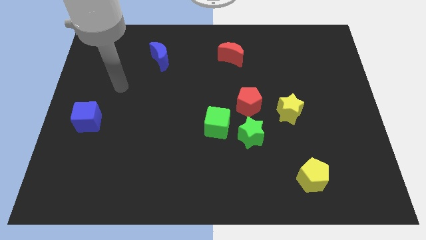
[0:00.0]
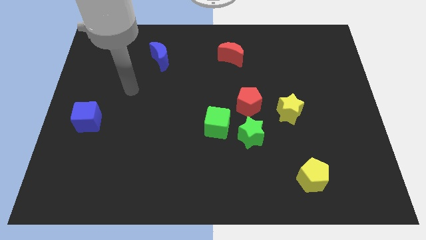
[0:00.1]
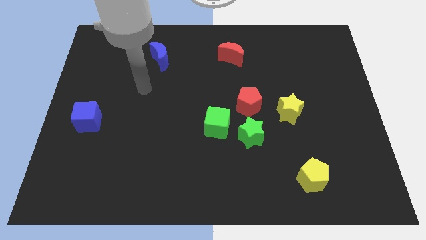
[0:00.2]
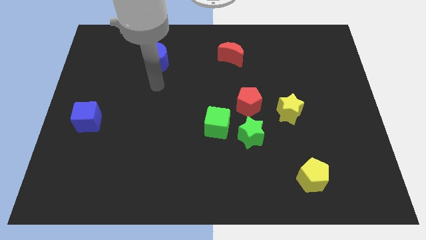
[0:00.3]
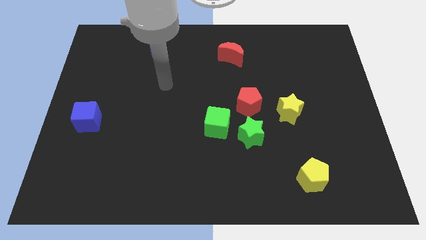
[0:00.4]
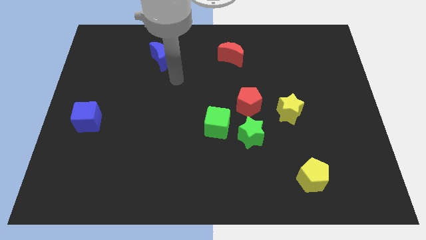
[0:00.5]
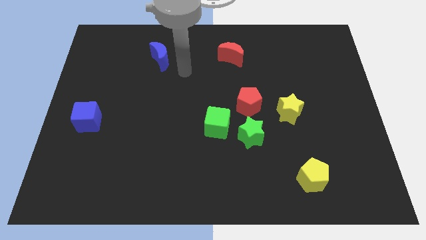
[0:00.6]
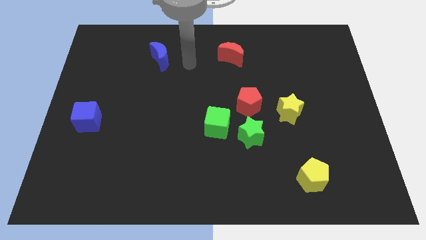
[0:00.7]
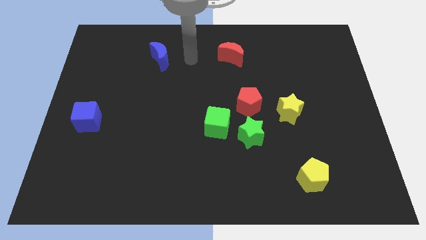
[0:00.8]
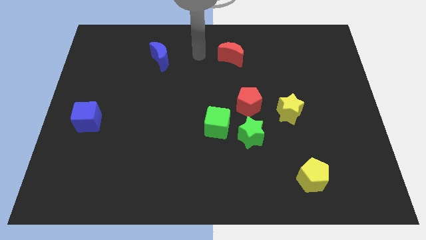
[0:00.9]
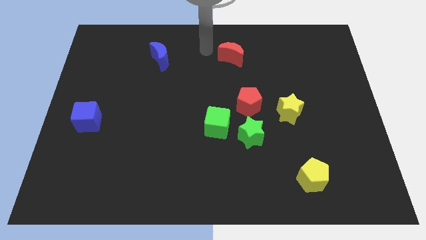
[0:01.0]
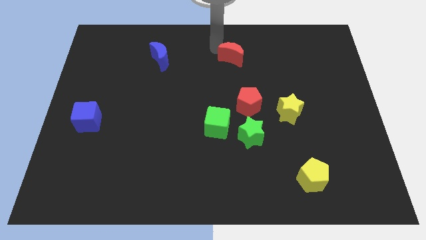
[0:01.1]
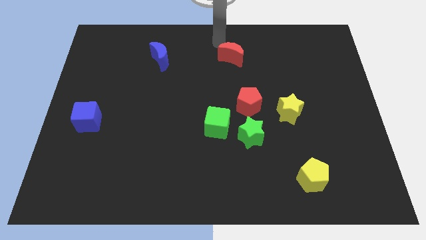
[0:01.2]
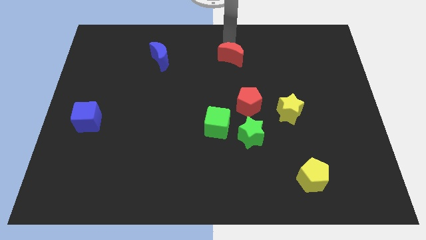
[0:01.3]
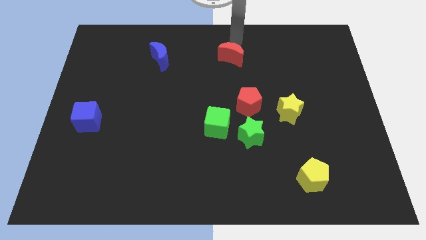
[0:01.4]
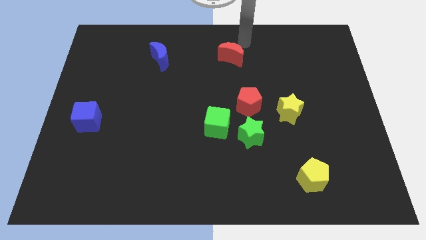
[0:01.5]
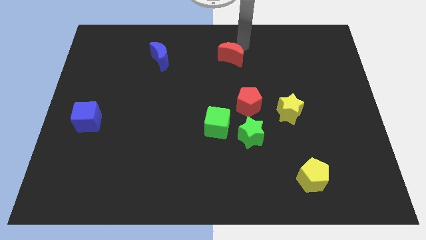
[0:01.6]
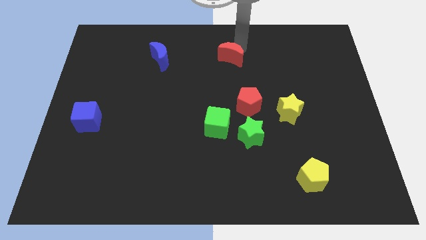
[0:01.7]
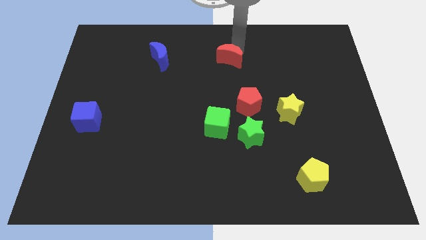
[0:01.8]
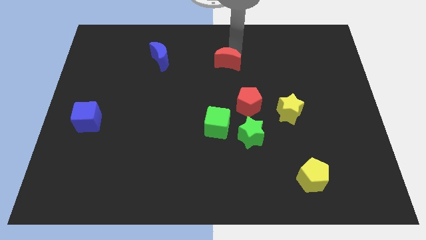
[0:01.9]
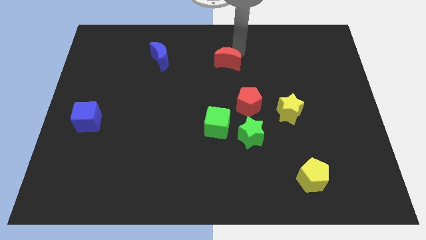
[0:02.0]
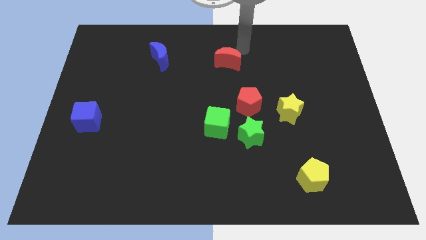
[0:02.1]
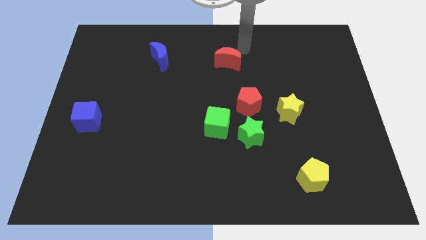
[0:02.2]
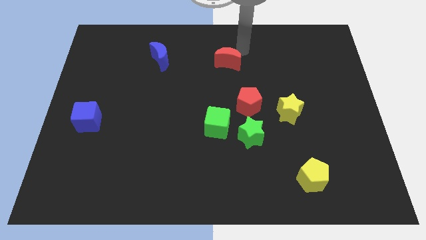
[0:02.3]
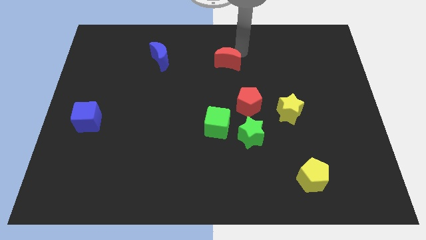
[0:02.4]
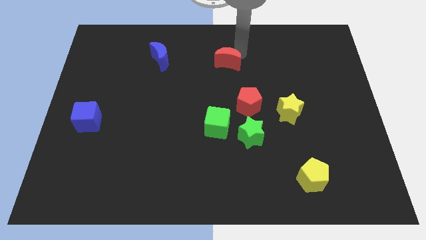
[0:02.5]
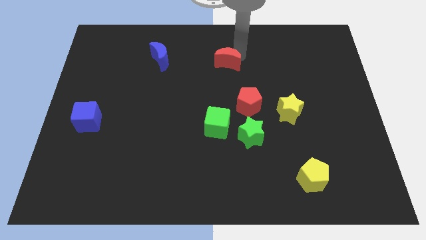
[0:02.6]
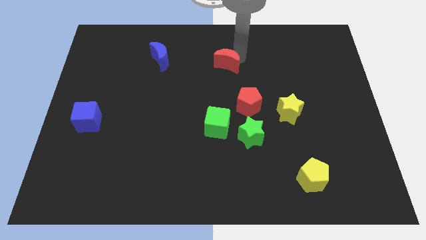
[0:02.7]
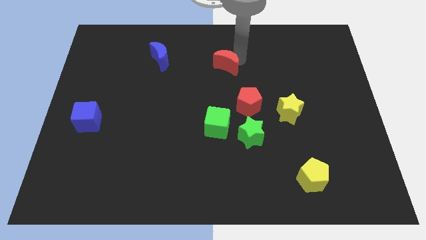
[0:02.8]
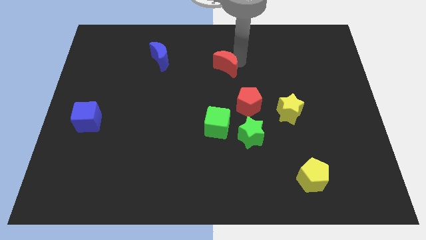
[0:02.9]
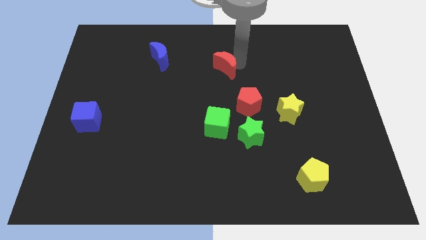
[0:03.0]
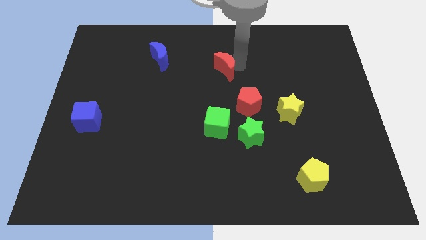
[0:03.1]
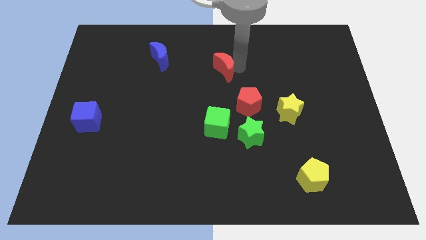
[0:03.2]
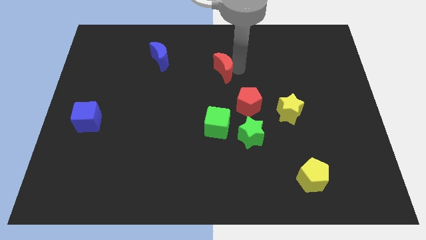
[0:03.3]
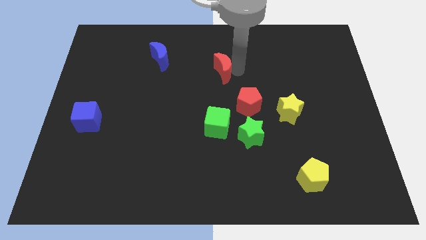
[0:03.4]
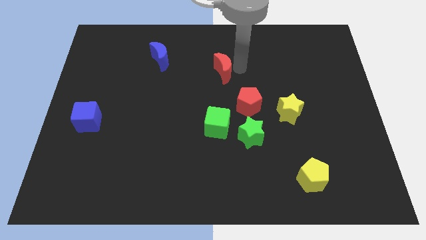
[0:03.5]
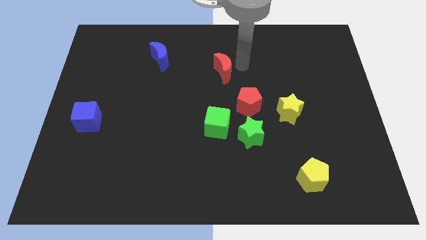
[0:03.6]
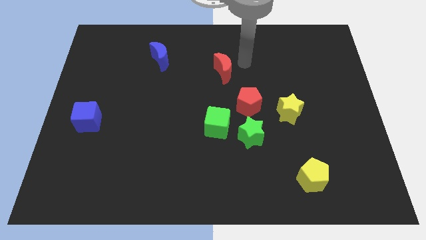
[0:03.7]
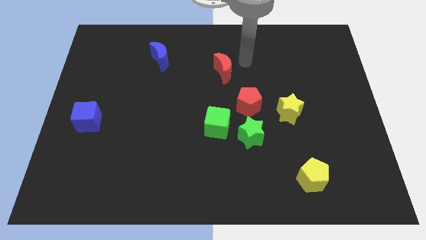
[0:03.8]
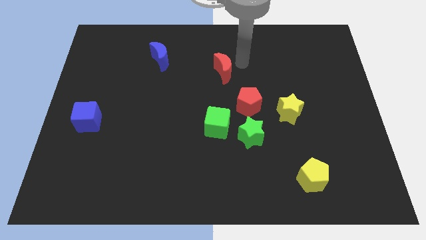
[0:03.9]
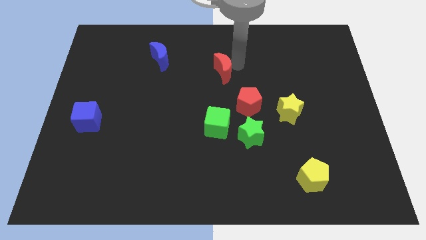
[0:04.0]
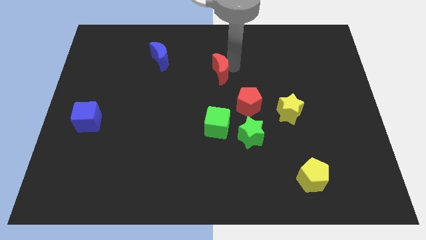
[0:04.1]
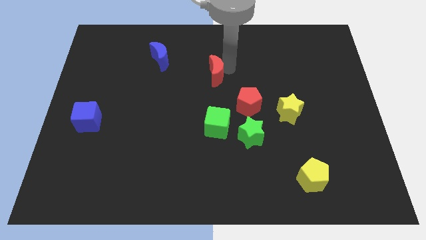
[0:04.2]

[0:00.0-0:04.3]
push the red moon slightly down and to the left

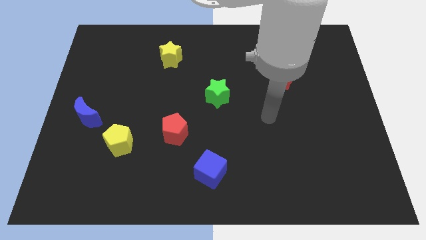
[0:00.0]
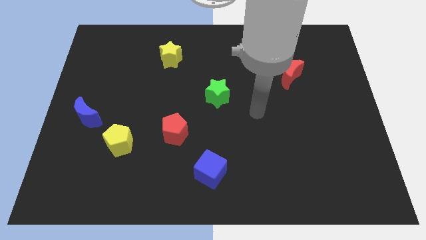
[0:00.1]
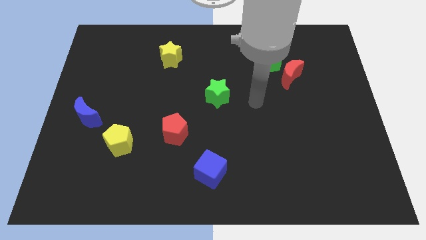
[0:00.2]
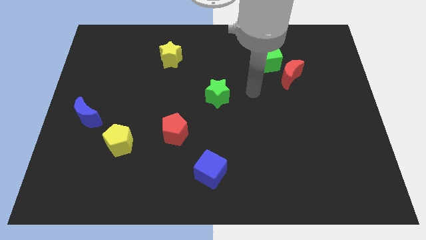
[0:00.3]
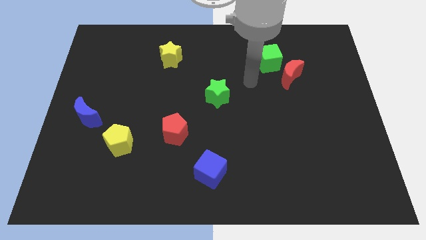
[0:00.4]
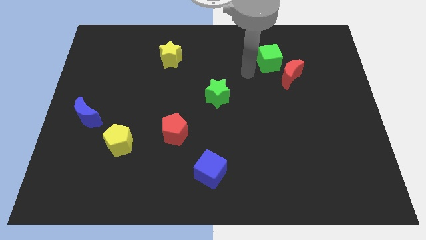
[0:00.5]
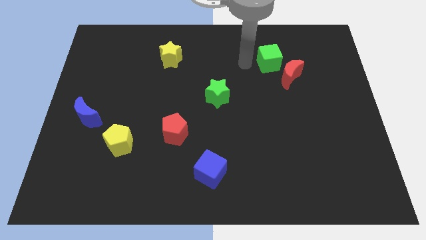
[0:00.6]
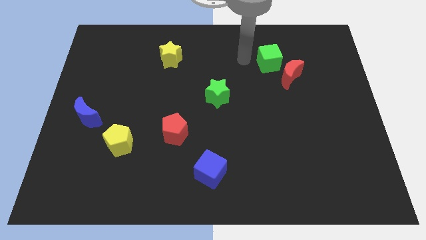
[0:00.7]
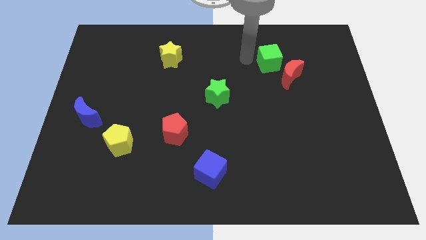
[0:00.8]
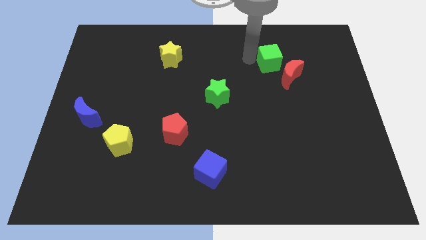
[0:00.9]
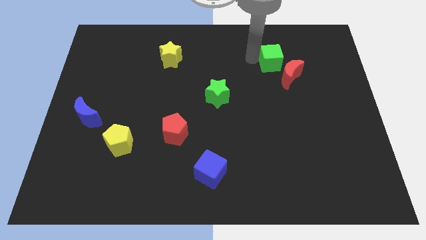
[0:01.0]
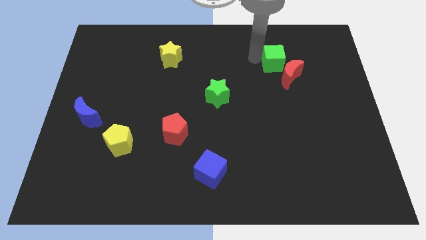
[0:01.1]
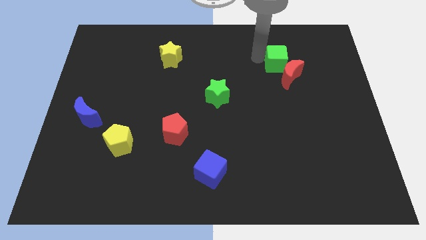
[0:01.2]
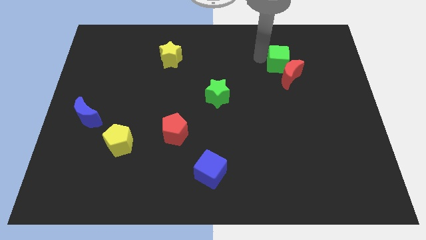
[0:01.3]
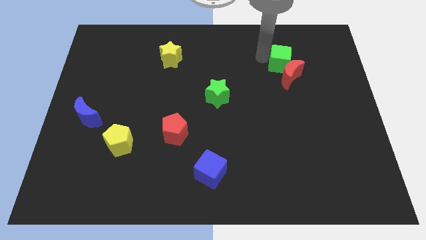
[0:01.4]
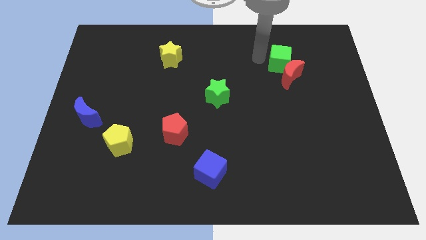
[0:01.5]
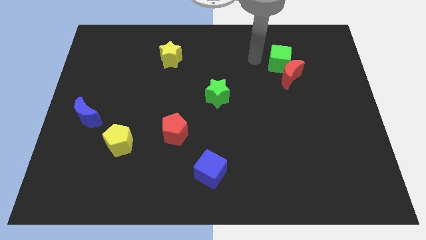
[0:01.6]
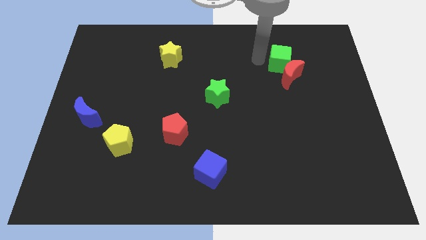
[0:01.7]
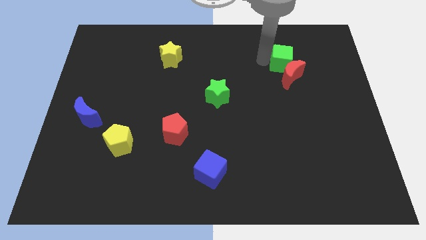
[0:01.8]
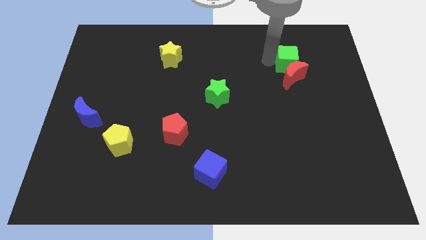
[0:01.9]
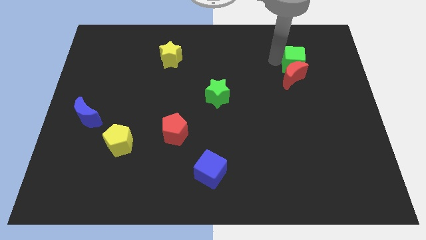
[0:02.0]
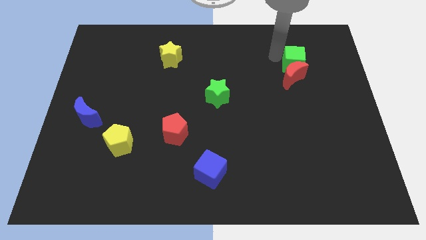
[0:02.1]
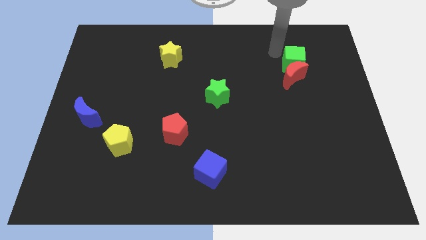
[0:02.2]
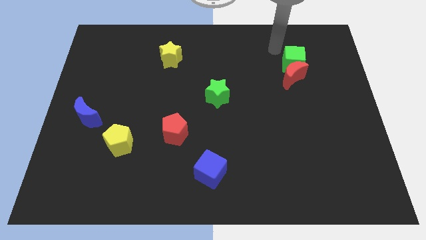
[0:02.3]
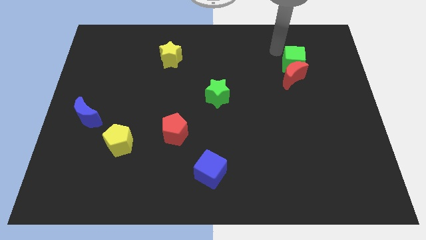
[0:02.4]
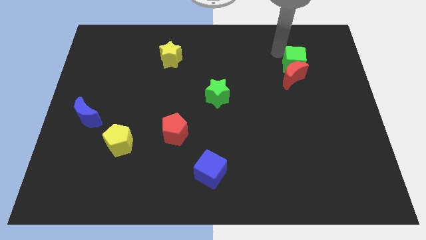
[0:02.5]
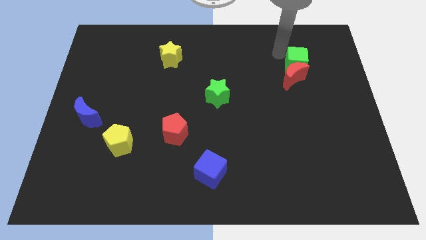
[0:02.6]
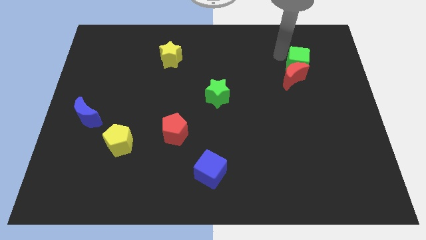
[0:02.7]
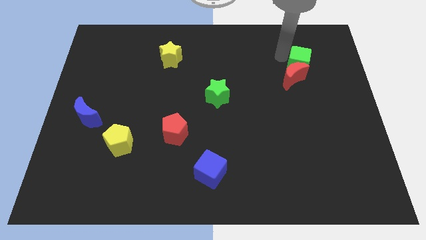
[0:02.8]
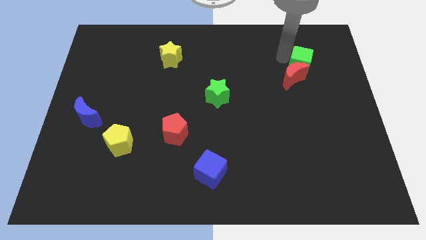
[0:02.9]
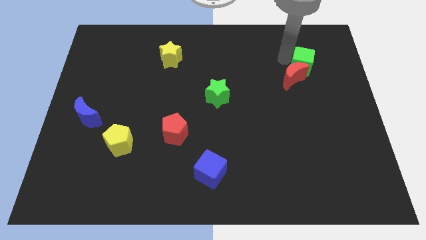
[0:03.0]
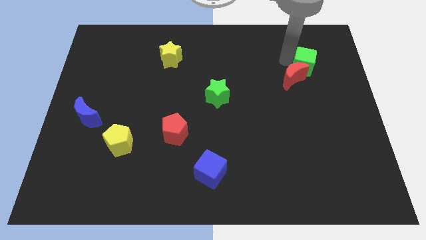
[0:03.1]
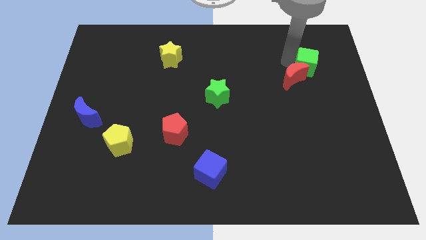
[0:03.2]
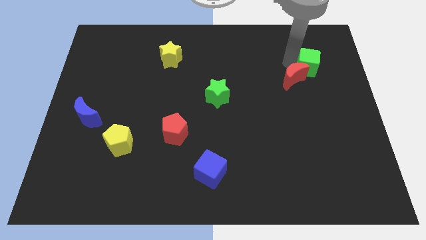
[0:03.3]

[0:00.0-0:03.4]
move the green cube down and then to the right a bit

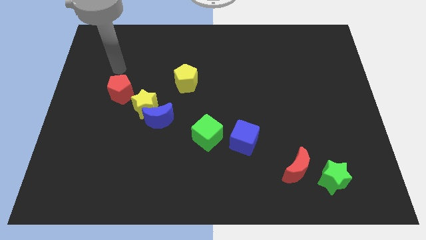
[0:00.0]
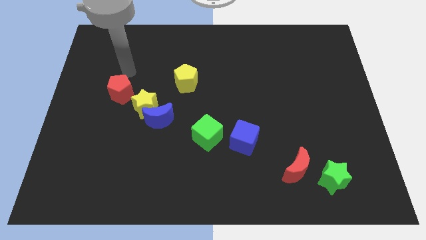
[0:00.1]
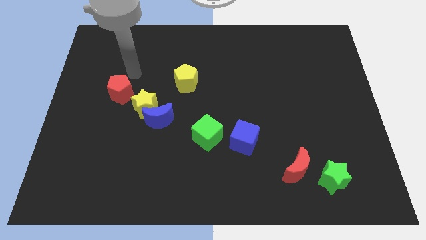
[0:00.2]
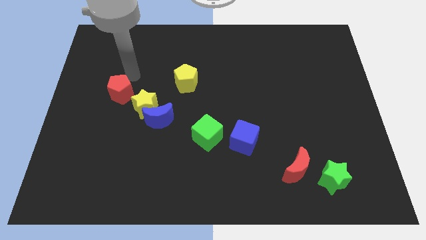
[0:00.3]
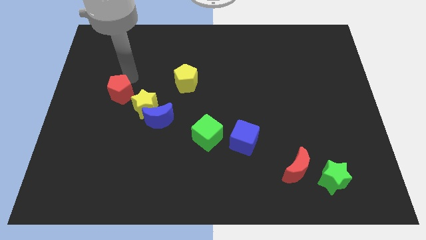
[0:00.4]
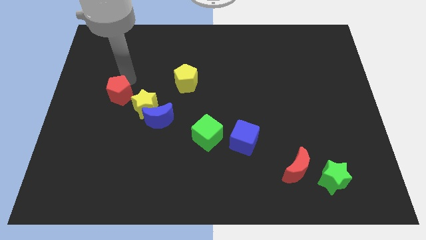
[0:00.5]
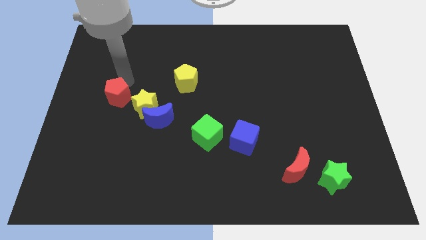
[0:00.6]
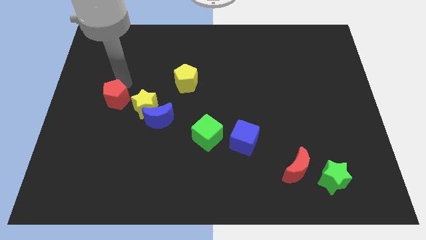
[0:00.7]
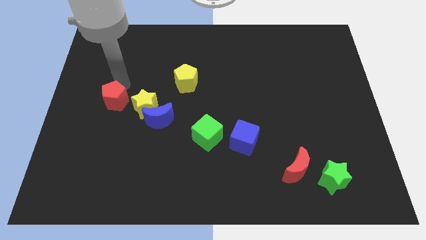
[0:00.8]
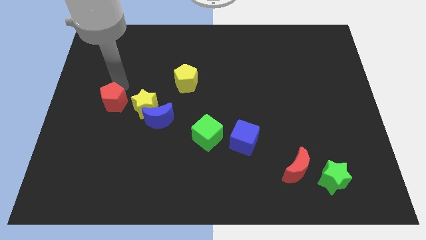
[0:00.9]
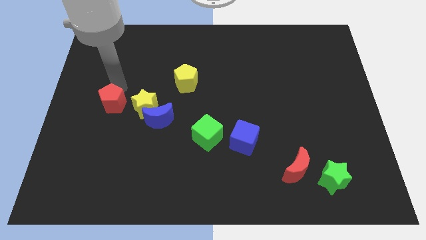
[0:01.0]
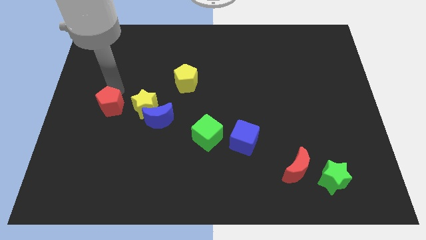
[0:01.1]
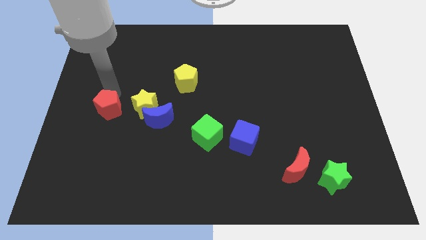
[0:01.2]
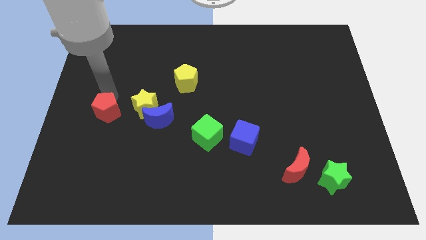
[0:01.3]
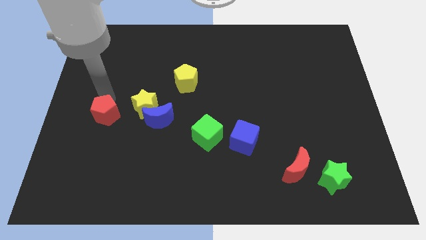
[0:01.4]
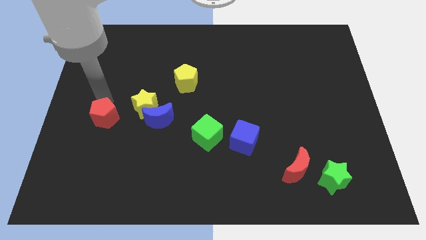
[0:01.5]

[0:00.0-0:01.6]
slightly move the red pentagon downwards
